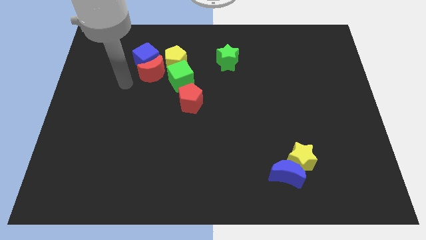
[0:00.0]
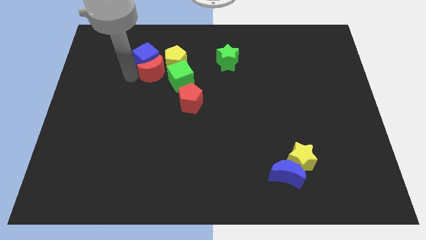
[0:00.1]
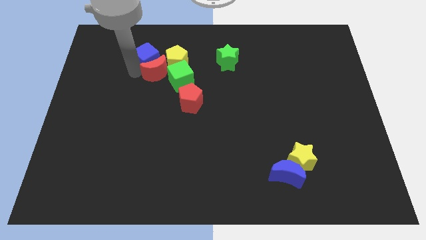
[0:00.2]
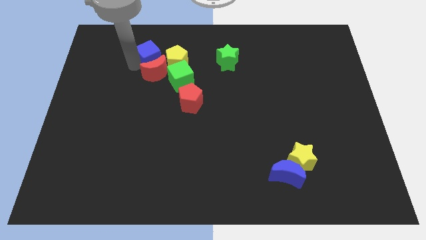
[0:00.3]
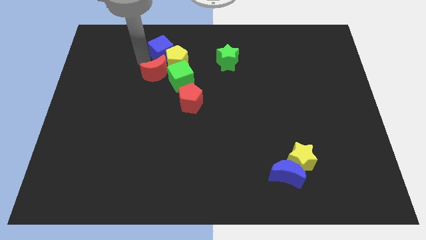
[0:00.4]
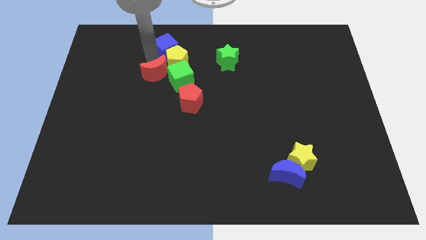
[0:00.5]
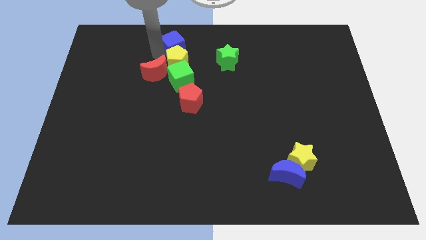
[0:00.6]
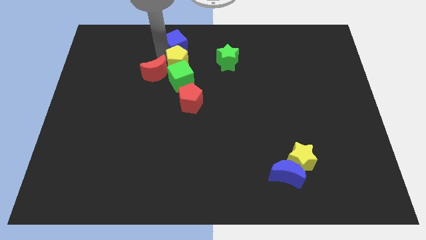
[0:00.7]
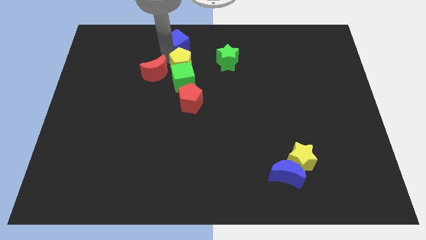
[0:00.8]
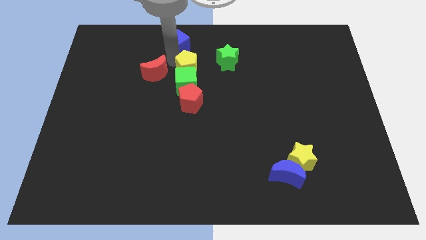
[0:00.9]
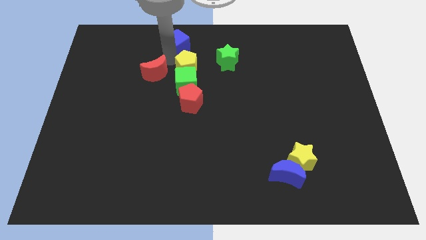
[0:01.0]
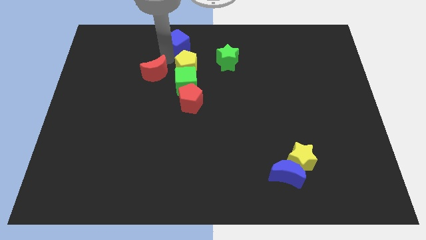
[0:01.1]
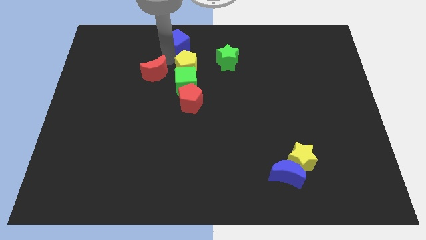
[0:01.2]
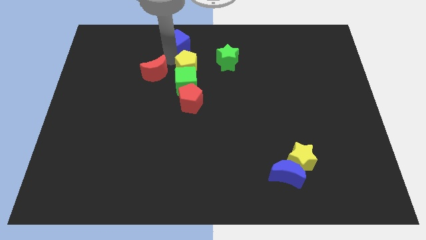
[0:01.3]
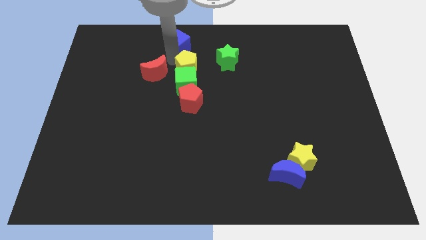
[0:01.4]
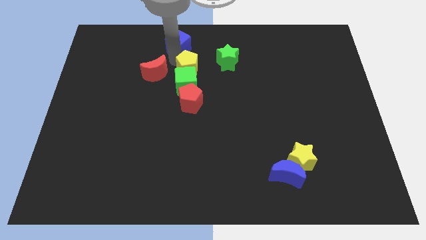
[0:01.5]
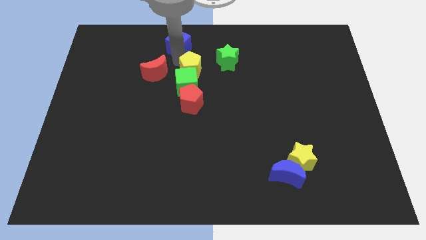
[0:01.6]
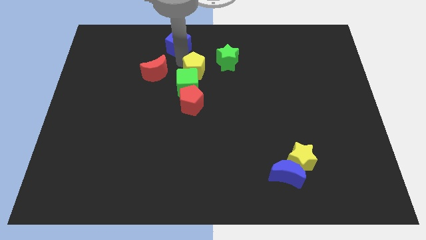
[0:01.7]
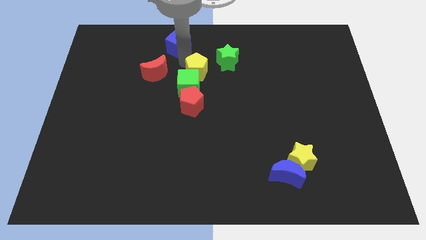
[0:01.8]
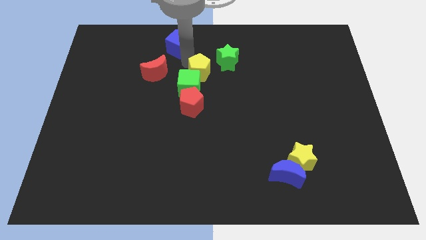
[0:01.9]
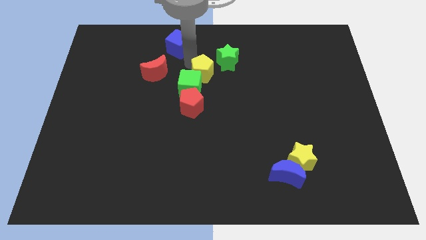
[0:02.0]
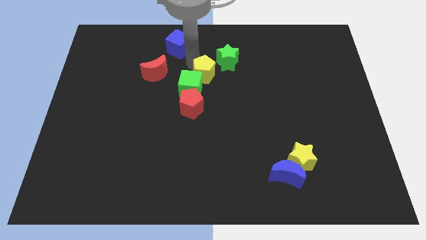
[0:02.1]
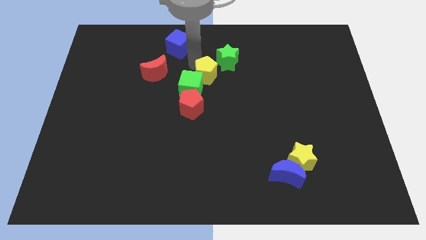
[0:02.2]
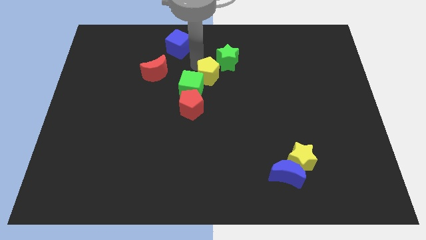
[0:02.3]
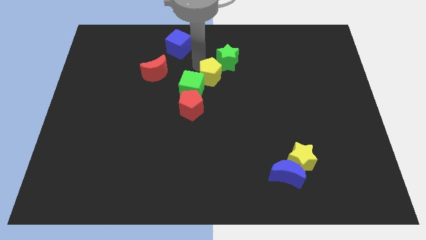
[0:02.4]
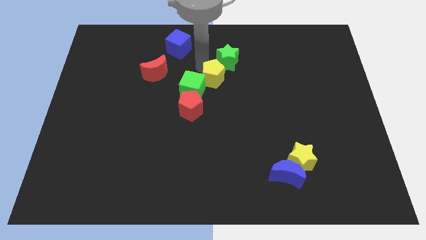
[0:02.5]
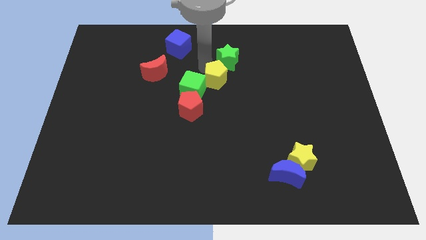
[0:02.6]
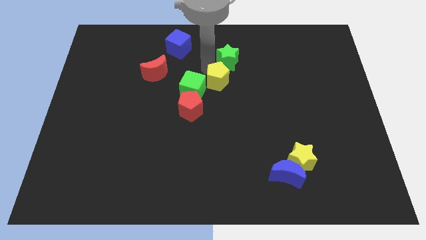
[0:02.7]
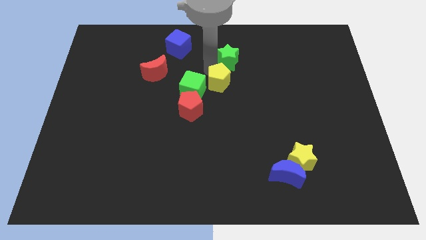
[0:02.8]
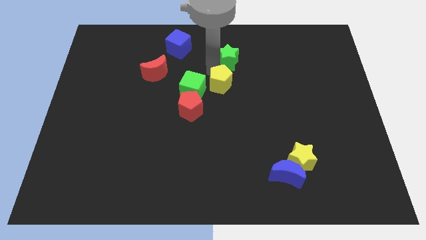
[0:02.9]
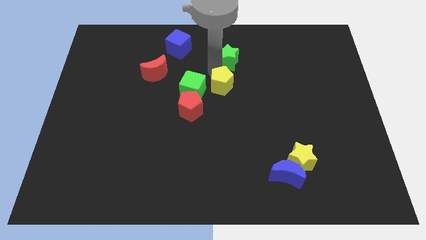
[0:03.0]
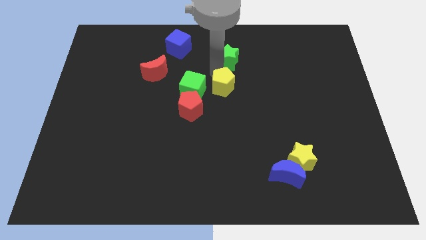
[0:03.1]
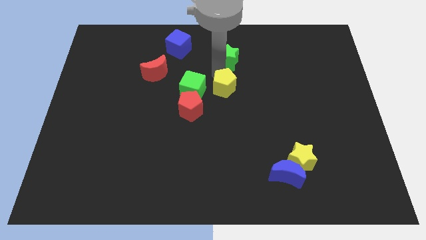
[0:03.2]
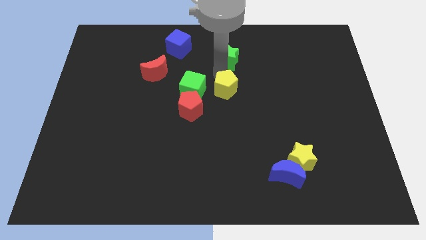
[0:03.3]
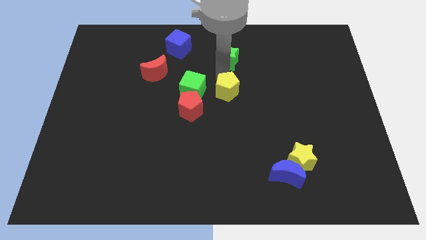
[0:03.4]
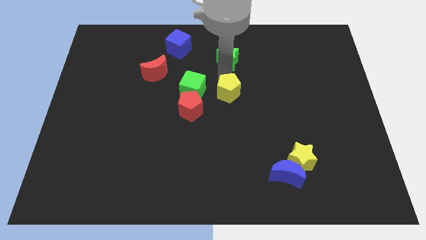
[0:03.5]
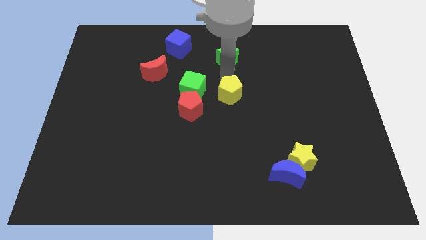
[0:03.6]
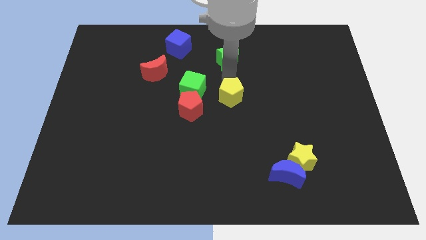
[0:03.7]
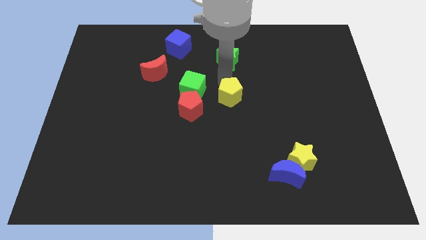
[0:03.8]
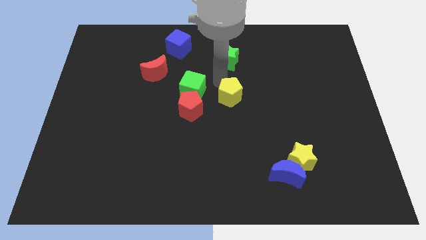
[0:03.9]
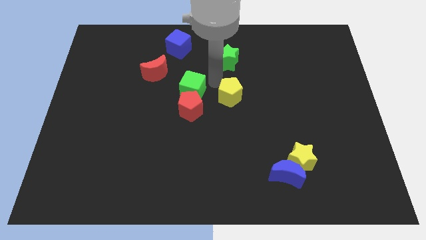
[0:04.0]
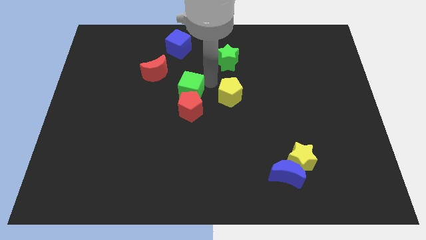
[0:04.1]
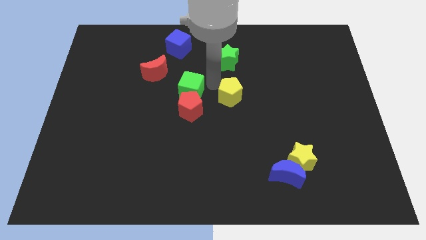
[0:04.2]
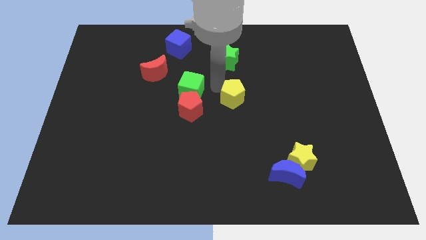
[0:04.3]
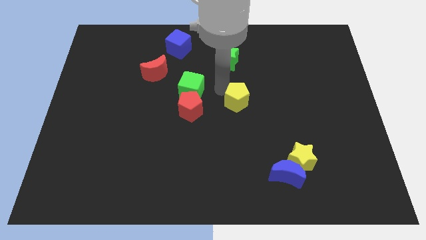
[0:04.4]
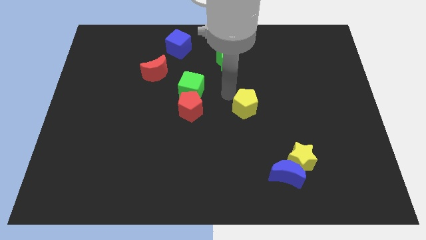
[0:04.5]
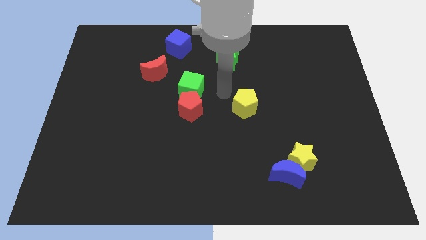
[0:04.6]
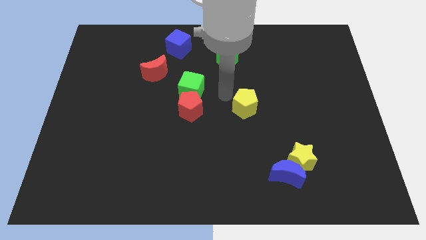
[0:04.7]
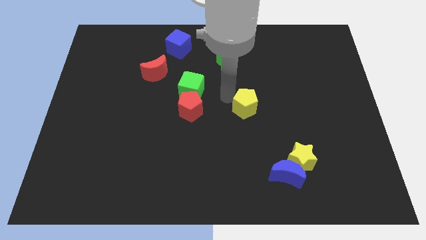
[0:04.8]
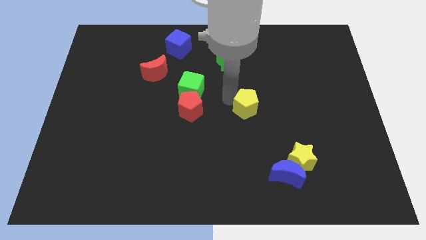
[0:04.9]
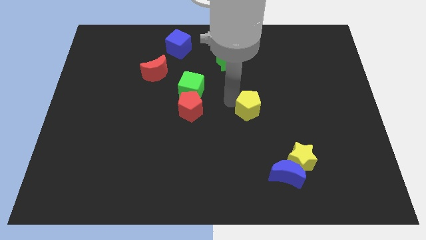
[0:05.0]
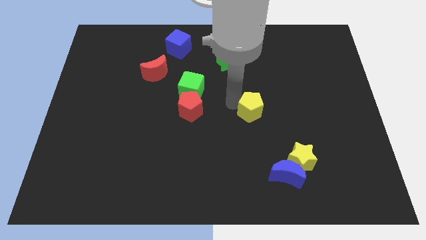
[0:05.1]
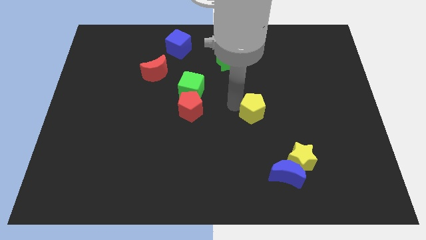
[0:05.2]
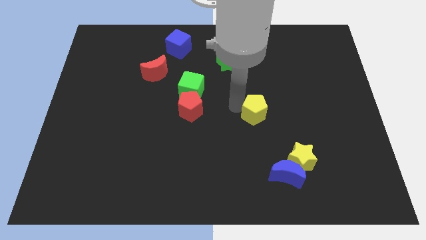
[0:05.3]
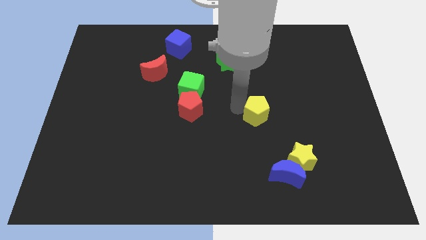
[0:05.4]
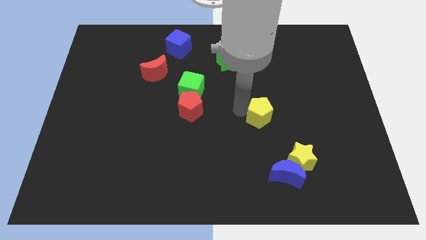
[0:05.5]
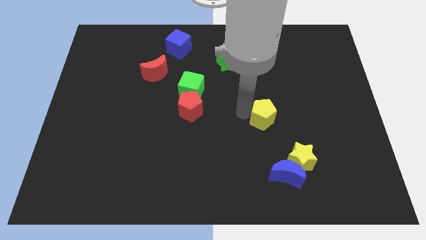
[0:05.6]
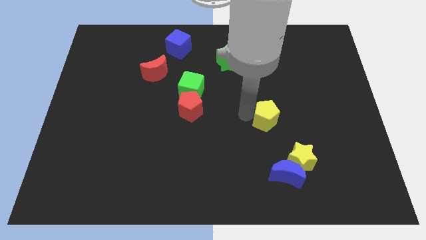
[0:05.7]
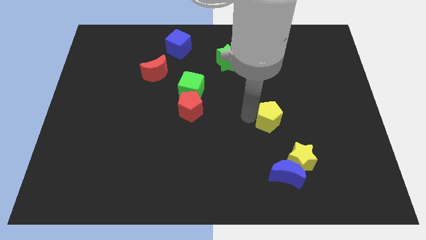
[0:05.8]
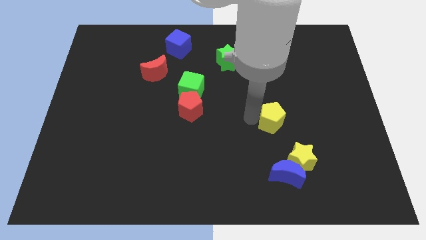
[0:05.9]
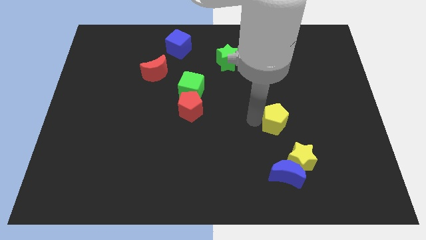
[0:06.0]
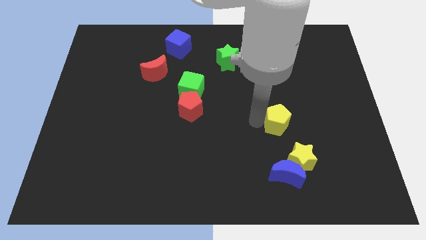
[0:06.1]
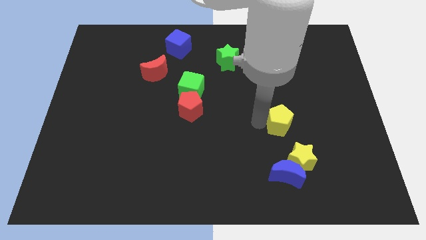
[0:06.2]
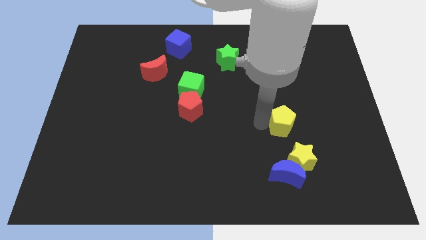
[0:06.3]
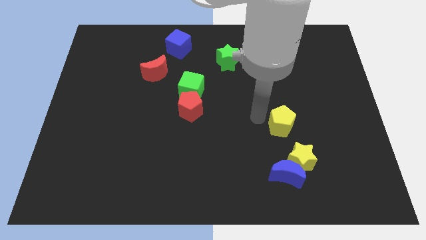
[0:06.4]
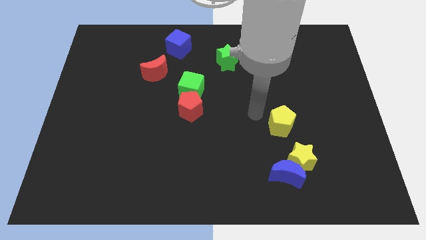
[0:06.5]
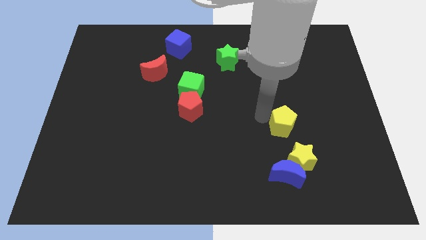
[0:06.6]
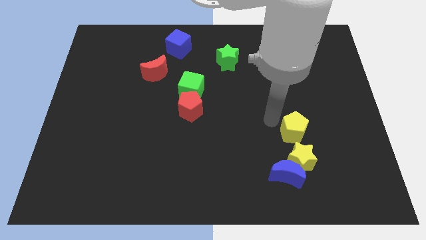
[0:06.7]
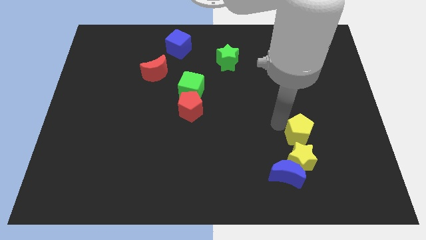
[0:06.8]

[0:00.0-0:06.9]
put the yellow pentagon diagonally up and to the right of the yellow star

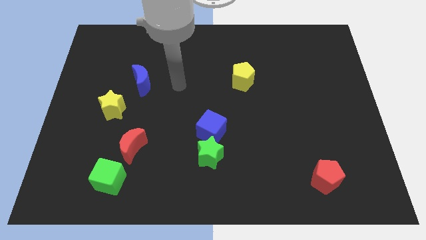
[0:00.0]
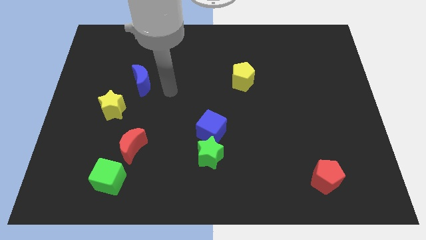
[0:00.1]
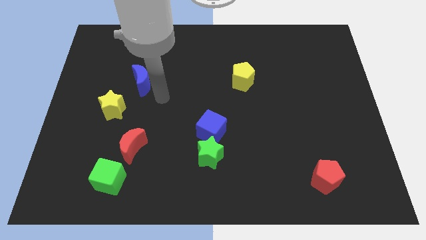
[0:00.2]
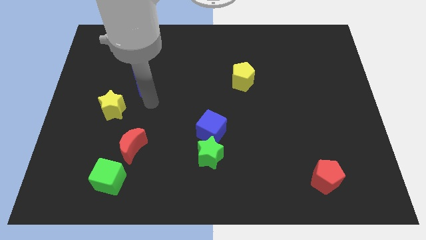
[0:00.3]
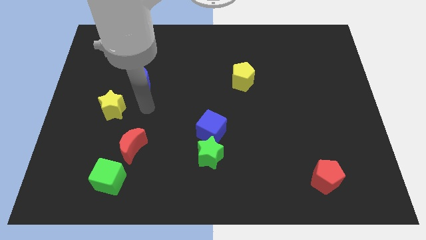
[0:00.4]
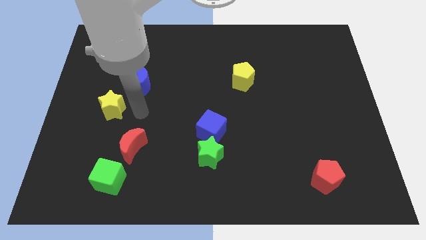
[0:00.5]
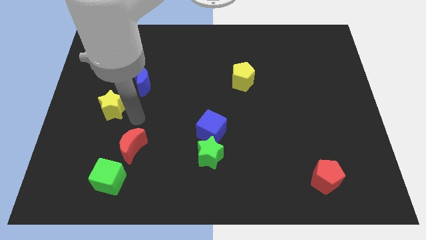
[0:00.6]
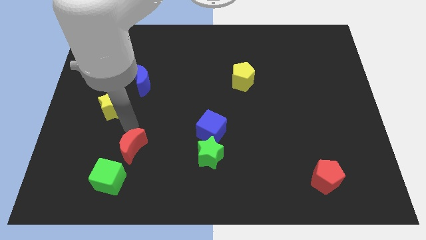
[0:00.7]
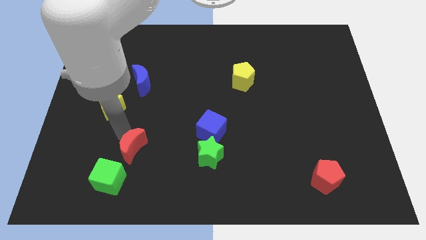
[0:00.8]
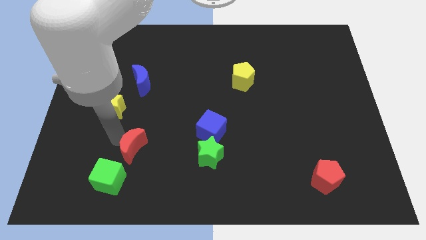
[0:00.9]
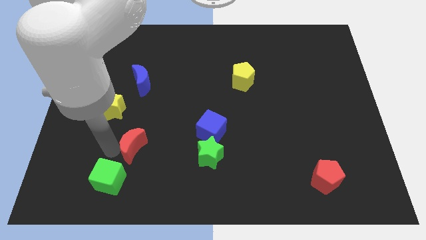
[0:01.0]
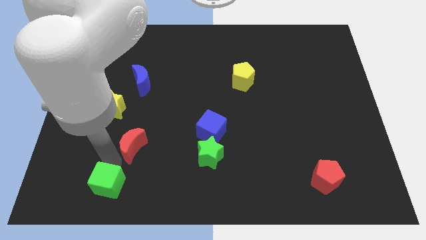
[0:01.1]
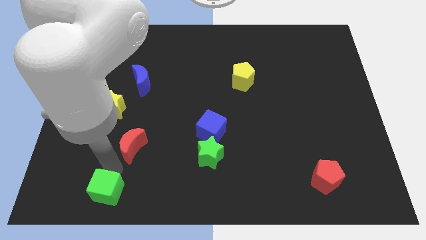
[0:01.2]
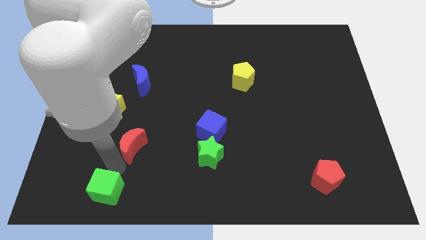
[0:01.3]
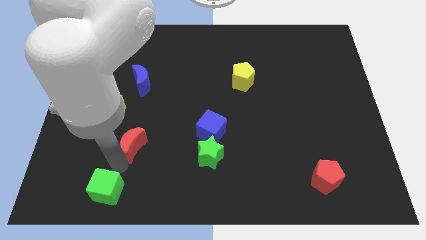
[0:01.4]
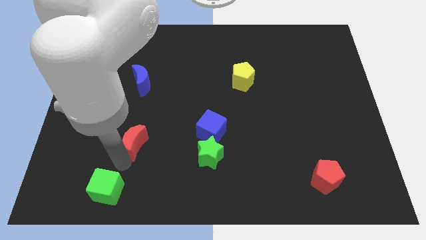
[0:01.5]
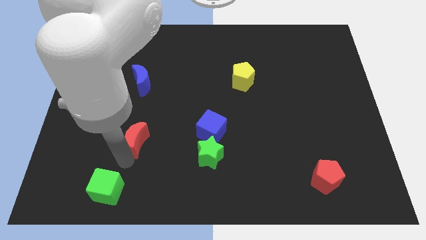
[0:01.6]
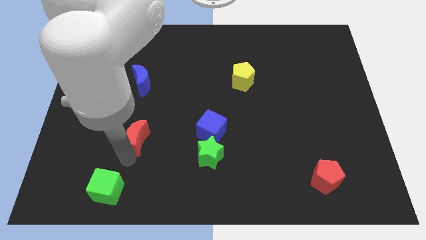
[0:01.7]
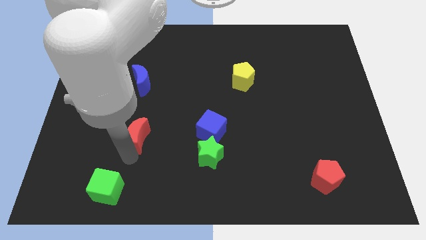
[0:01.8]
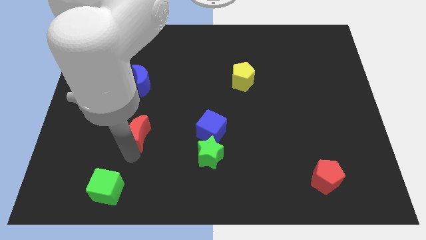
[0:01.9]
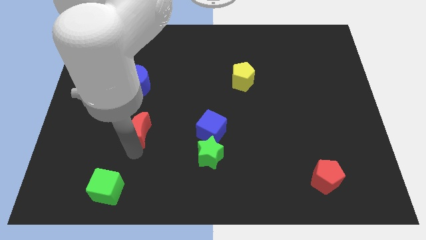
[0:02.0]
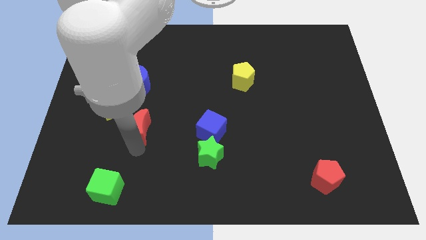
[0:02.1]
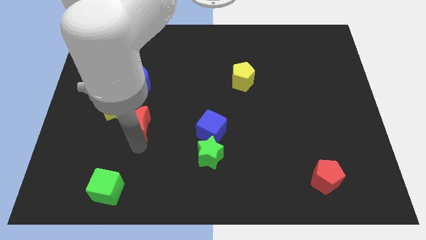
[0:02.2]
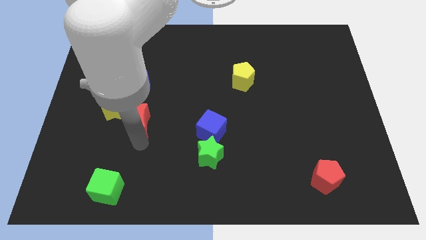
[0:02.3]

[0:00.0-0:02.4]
push the red moon right of the yellow star
